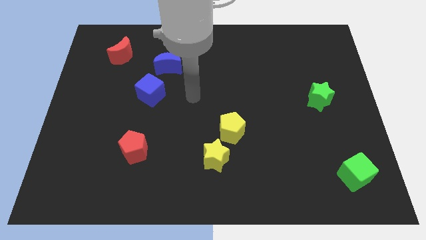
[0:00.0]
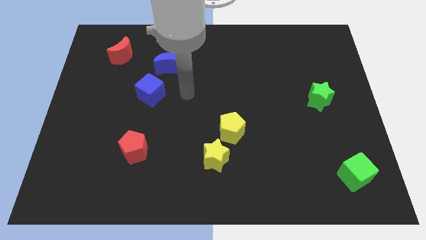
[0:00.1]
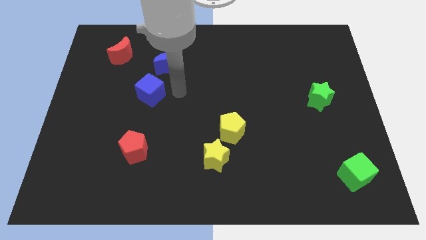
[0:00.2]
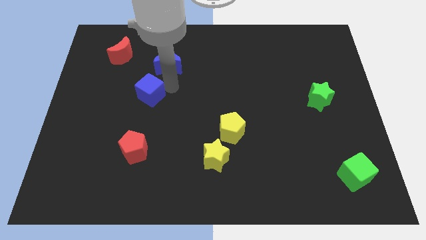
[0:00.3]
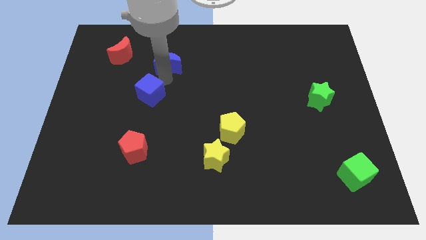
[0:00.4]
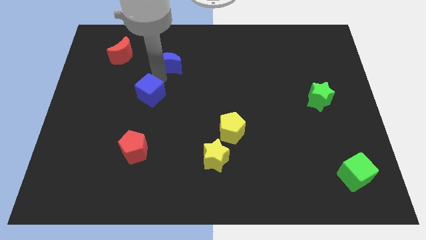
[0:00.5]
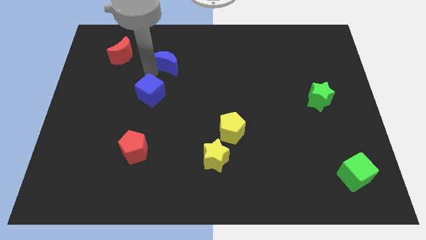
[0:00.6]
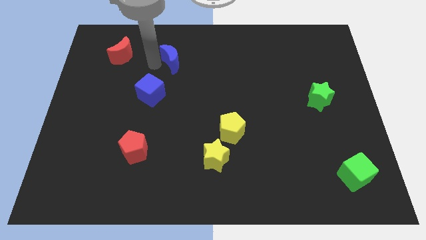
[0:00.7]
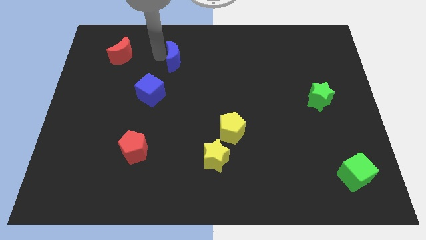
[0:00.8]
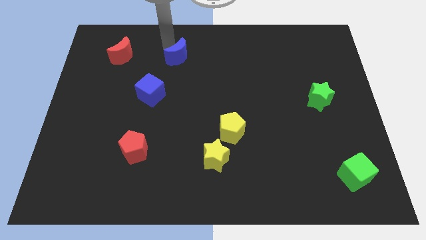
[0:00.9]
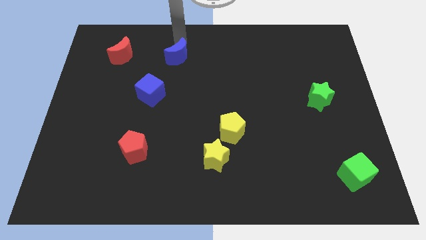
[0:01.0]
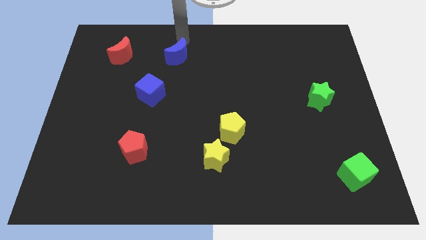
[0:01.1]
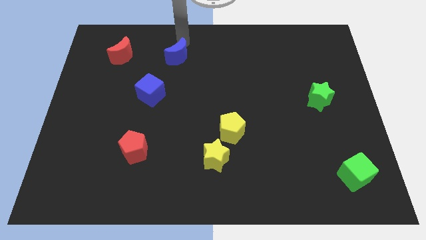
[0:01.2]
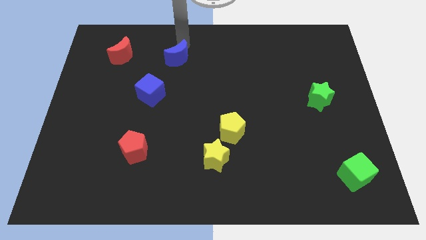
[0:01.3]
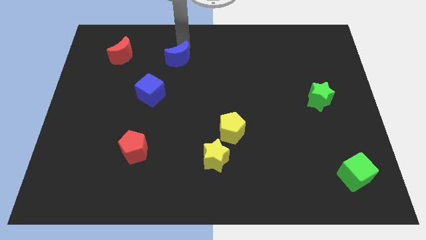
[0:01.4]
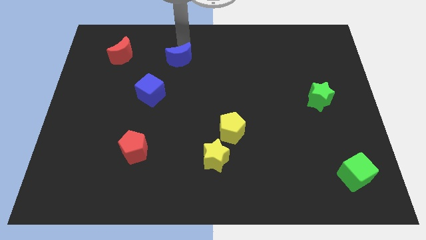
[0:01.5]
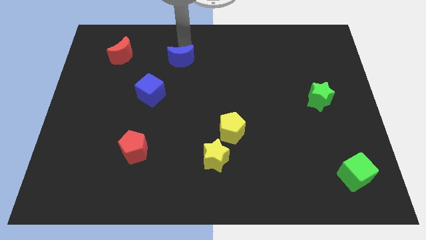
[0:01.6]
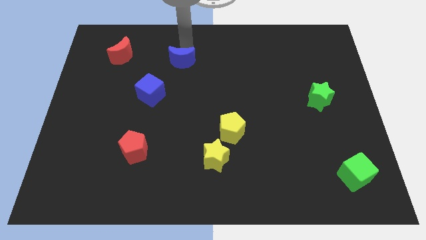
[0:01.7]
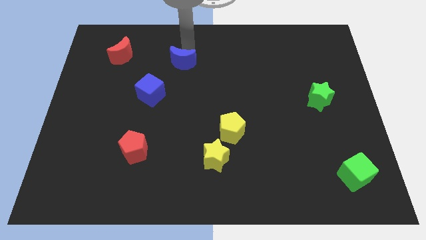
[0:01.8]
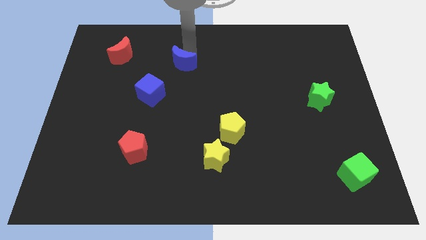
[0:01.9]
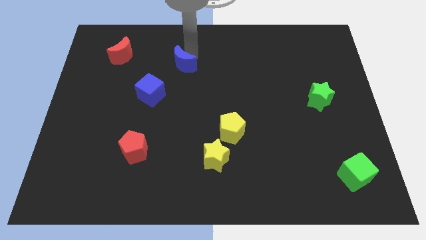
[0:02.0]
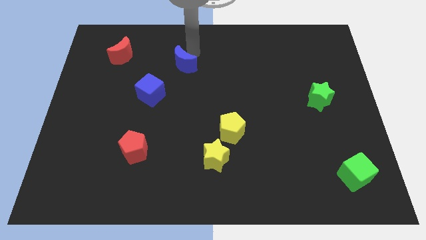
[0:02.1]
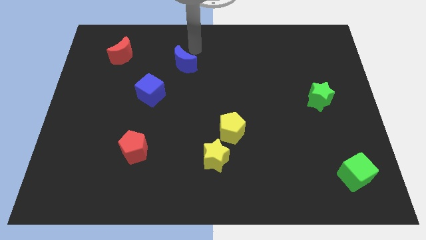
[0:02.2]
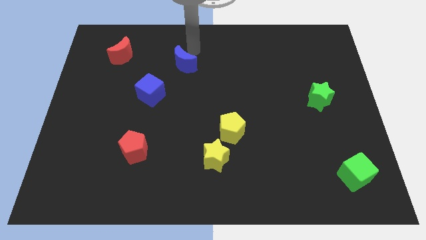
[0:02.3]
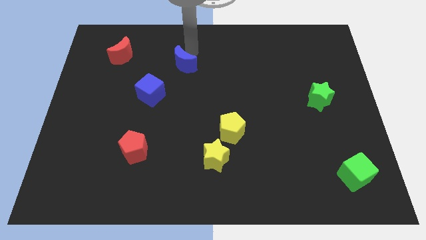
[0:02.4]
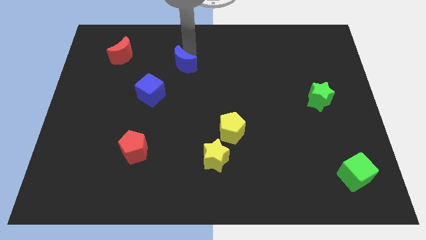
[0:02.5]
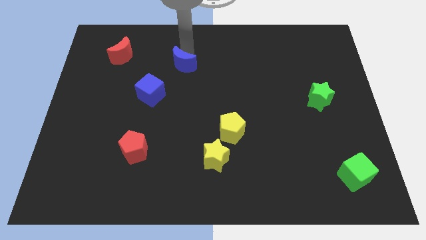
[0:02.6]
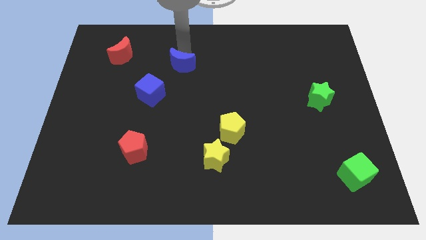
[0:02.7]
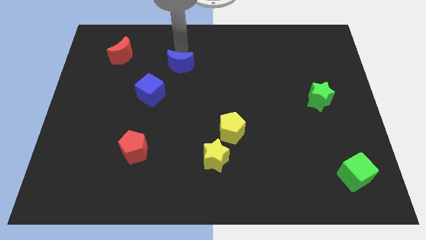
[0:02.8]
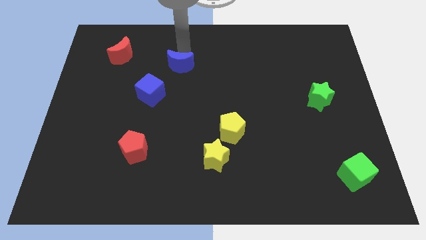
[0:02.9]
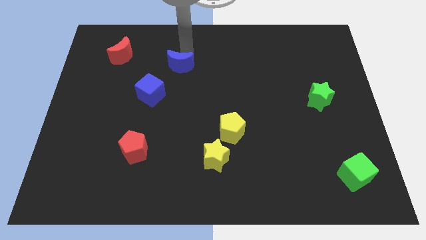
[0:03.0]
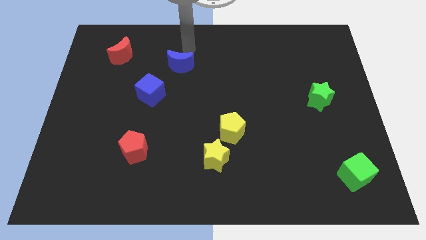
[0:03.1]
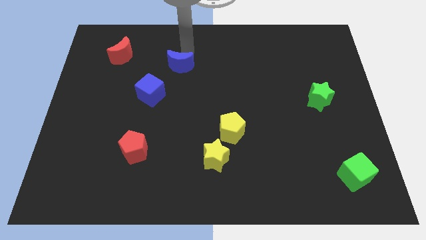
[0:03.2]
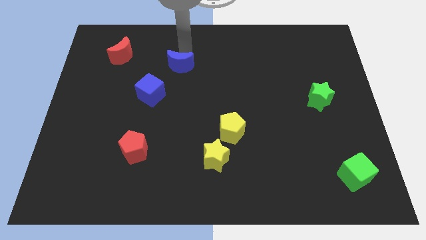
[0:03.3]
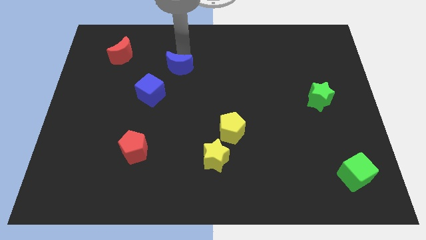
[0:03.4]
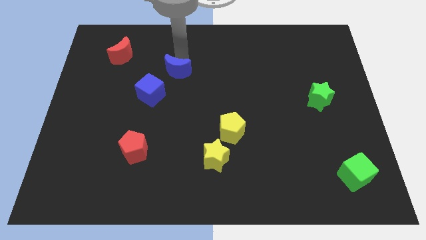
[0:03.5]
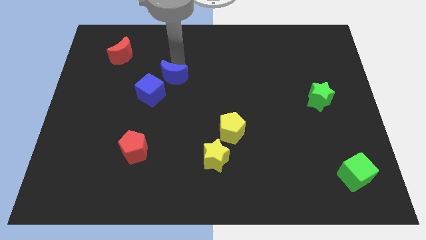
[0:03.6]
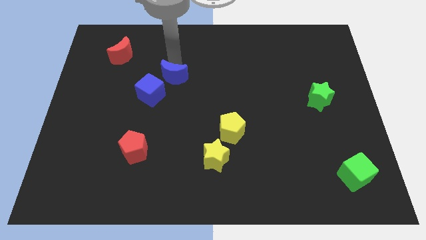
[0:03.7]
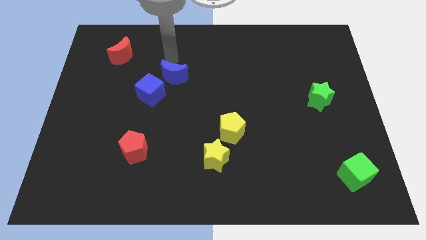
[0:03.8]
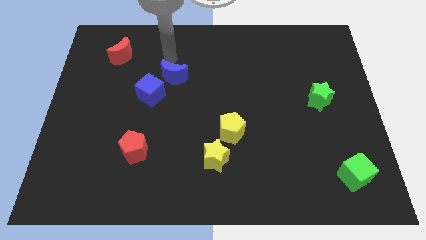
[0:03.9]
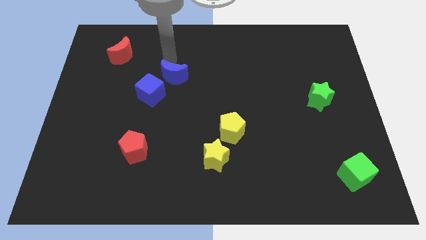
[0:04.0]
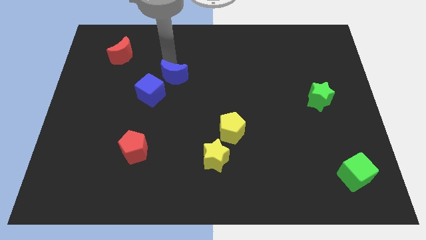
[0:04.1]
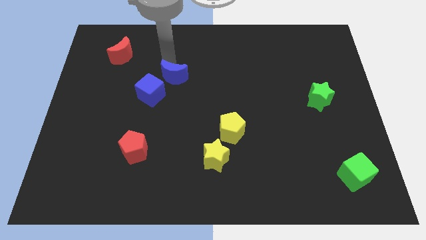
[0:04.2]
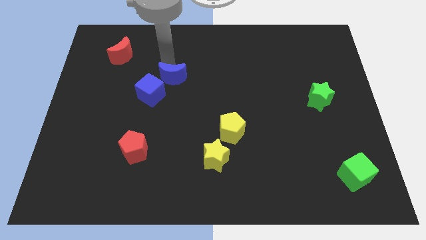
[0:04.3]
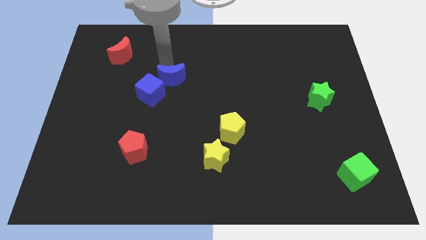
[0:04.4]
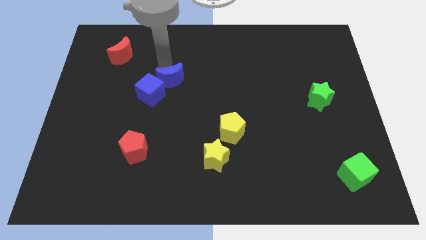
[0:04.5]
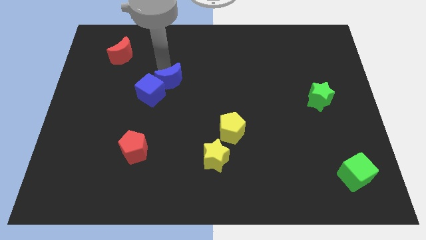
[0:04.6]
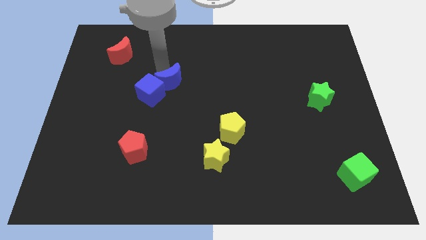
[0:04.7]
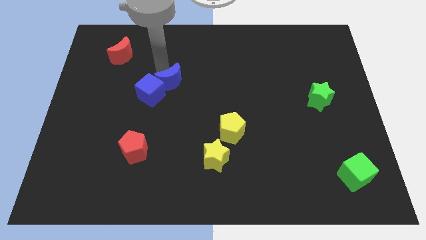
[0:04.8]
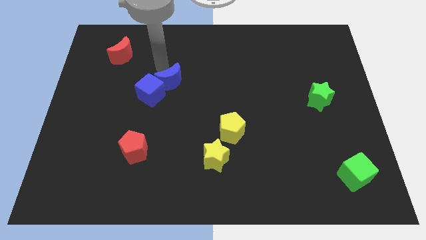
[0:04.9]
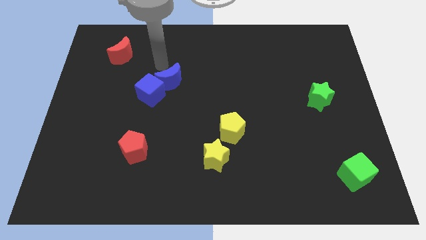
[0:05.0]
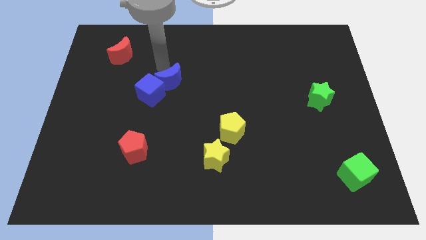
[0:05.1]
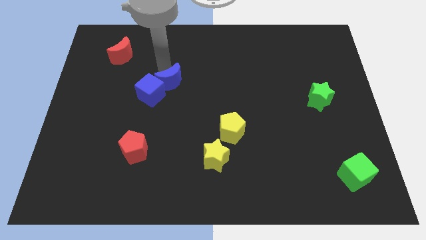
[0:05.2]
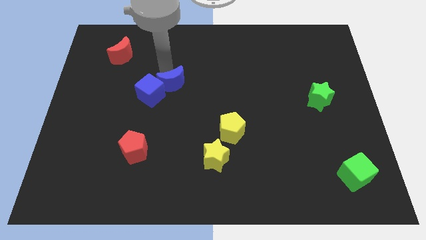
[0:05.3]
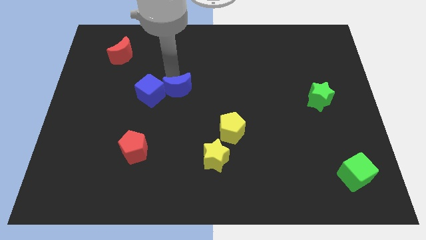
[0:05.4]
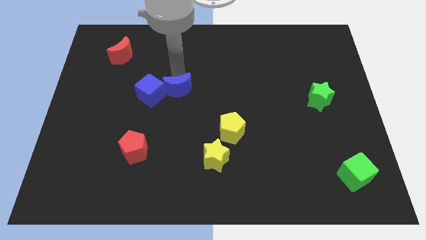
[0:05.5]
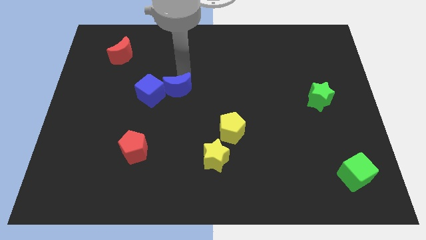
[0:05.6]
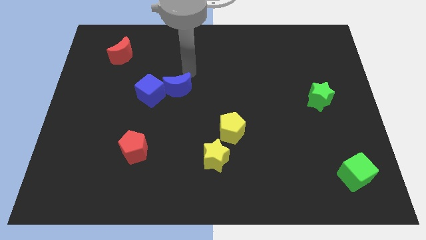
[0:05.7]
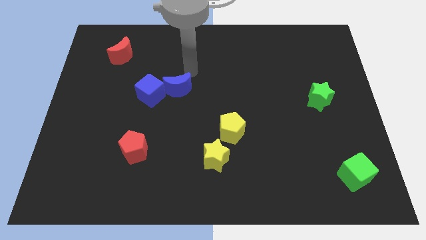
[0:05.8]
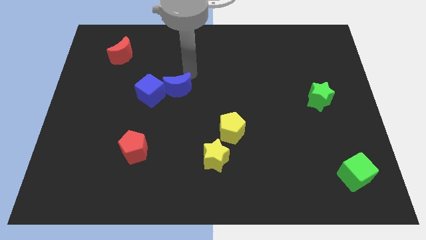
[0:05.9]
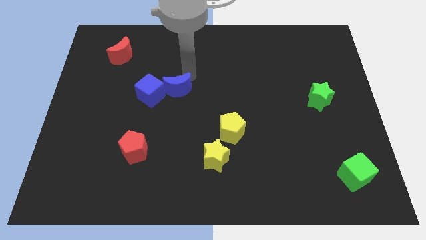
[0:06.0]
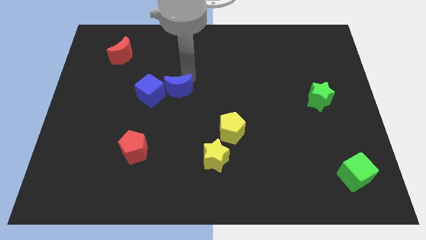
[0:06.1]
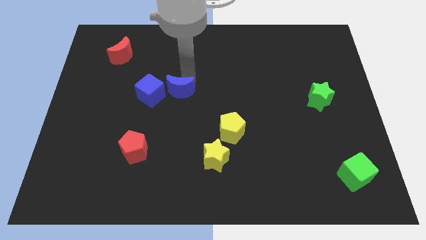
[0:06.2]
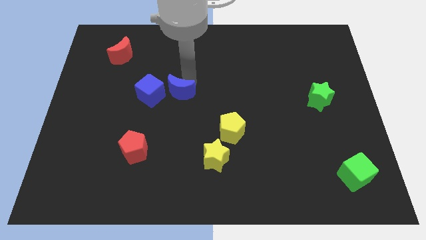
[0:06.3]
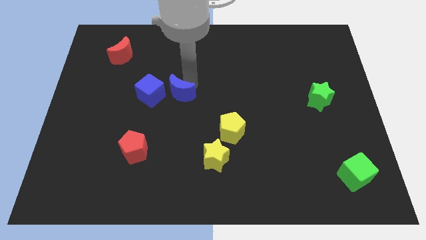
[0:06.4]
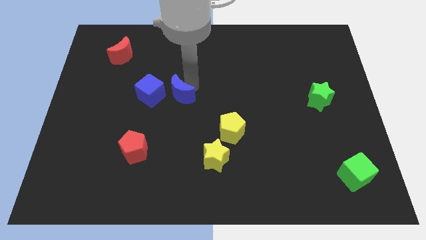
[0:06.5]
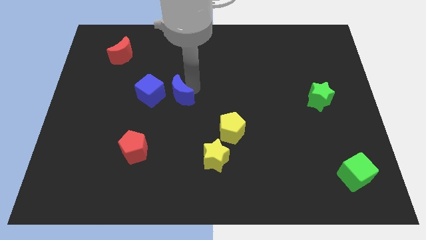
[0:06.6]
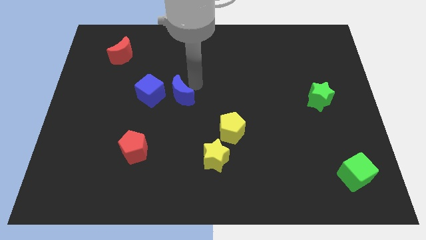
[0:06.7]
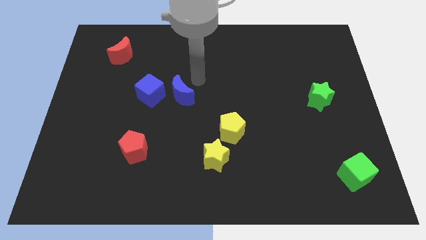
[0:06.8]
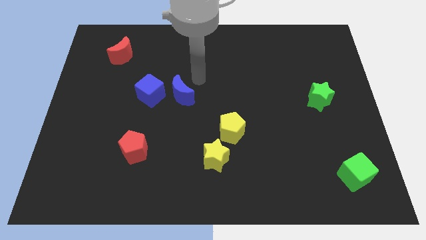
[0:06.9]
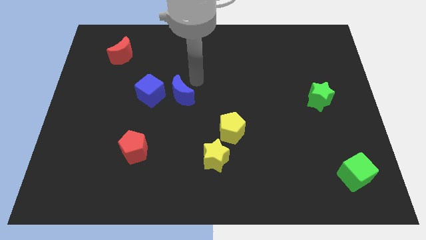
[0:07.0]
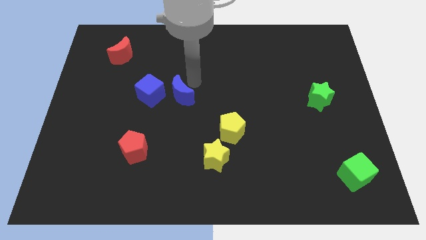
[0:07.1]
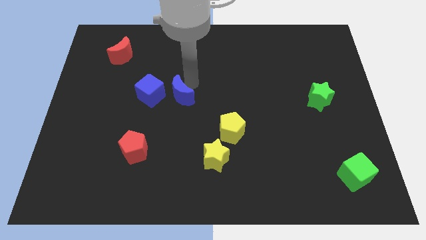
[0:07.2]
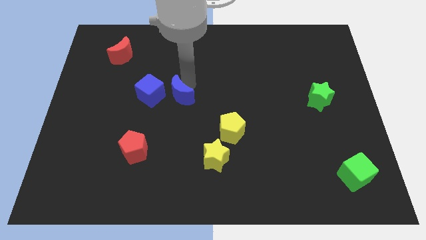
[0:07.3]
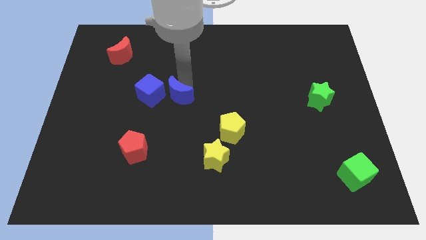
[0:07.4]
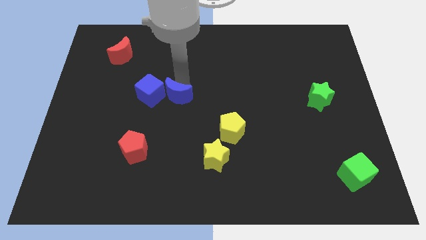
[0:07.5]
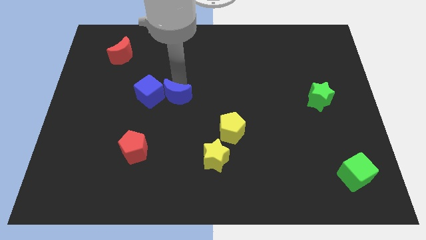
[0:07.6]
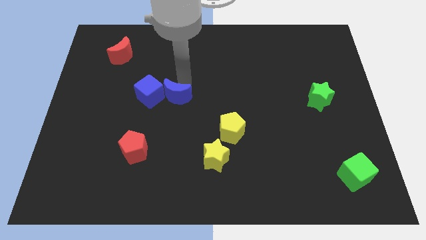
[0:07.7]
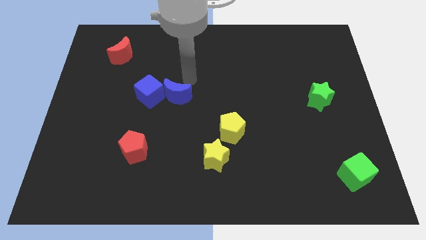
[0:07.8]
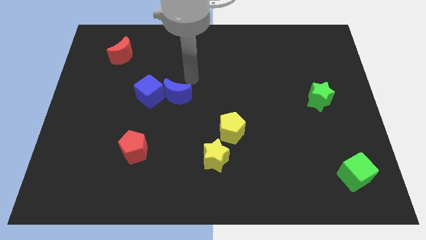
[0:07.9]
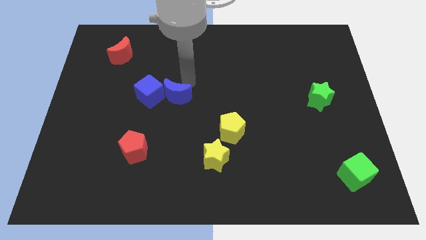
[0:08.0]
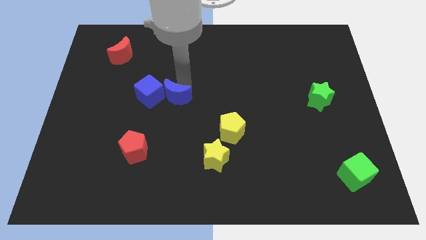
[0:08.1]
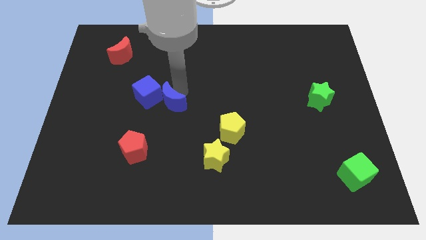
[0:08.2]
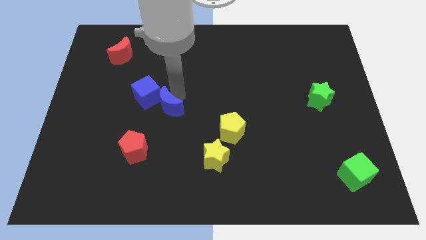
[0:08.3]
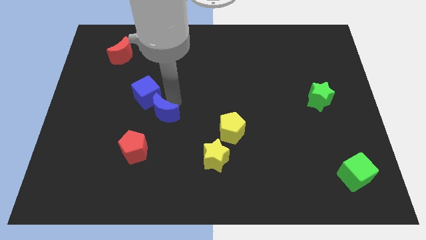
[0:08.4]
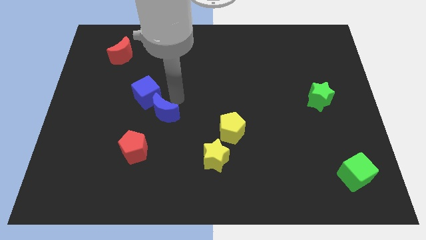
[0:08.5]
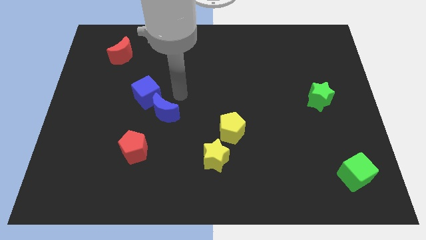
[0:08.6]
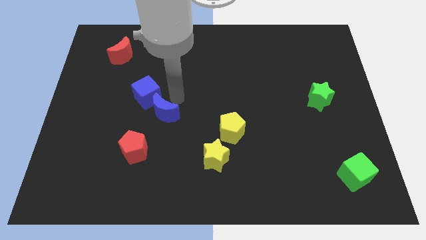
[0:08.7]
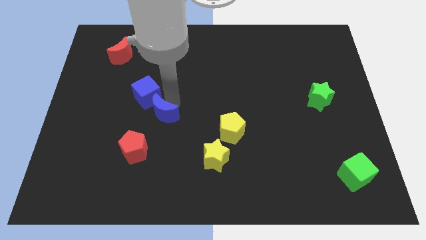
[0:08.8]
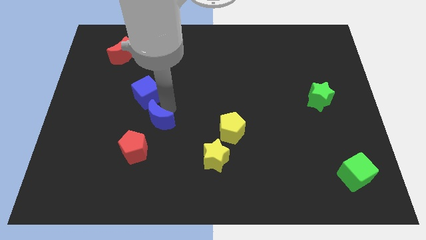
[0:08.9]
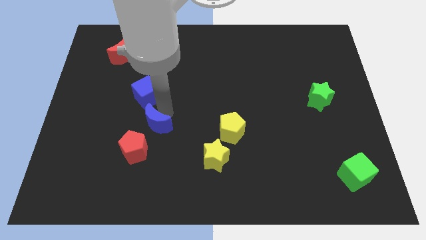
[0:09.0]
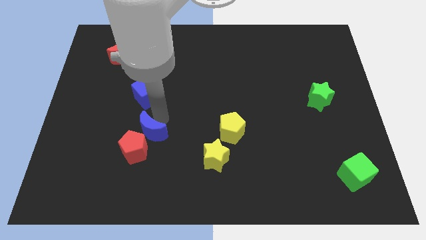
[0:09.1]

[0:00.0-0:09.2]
push the blue moon next to the red pentagon
